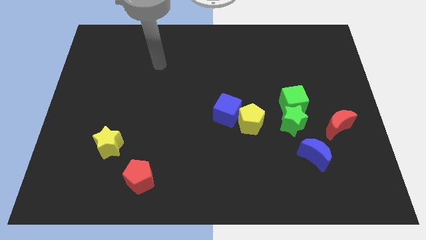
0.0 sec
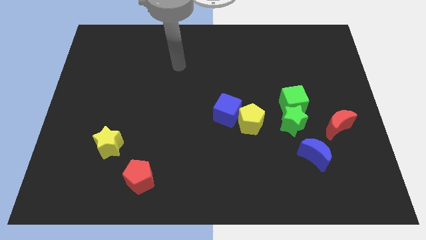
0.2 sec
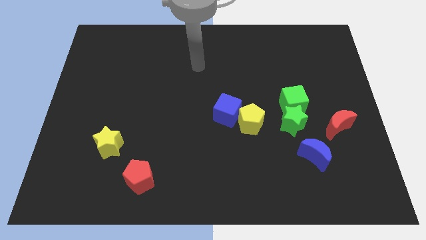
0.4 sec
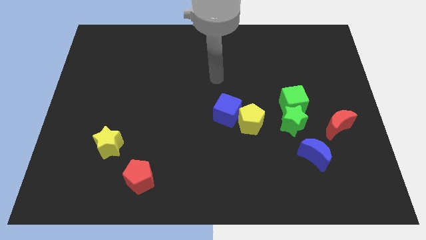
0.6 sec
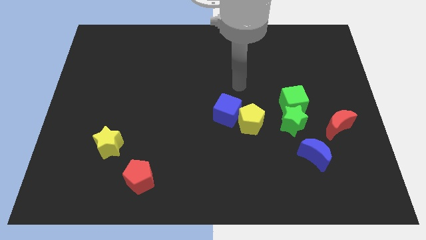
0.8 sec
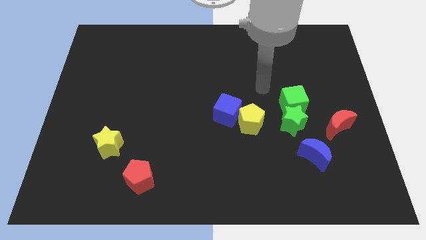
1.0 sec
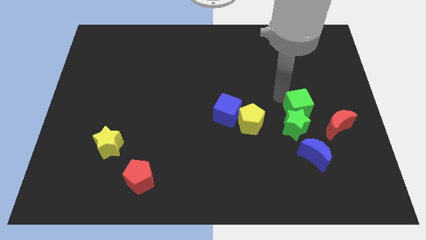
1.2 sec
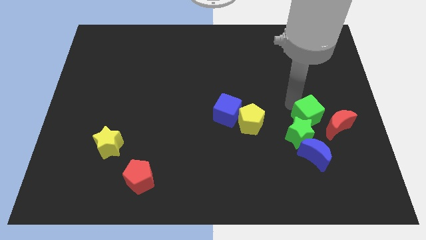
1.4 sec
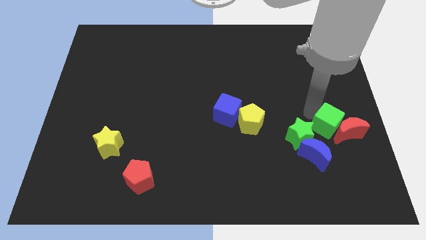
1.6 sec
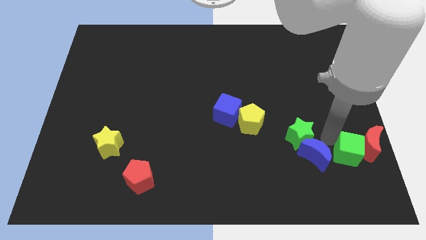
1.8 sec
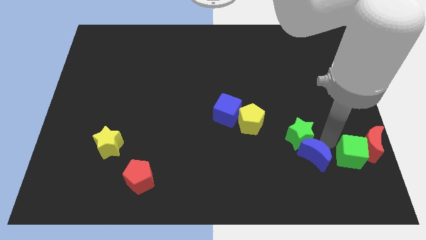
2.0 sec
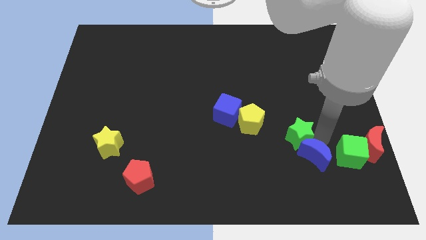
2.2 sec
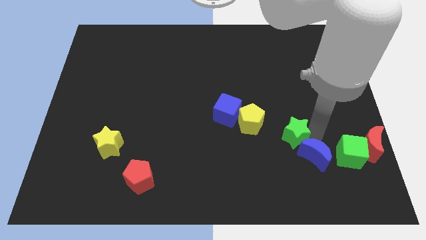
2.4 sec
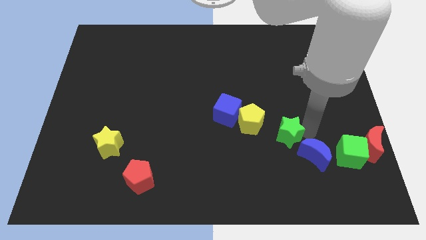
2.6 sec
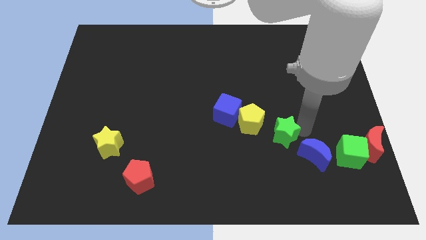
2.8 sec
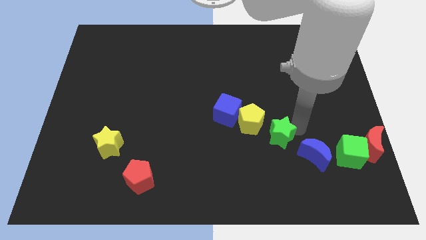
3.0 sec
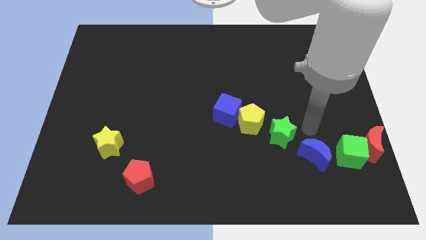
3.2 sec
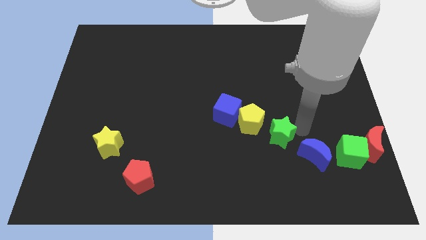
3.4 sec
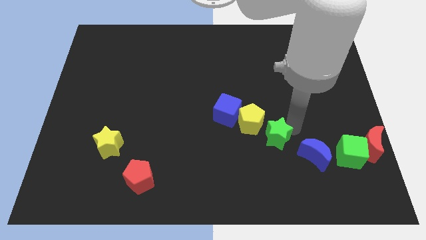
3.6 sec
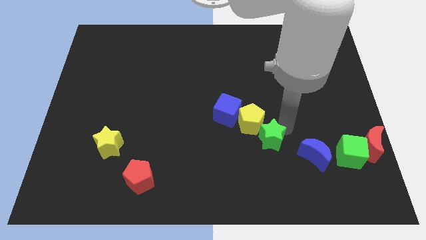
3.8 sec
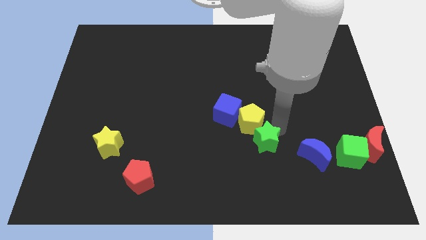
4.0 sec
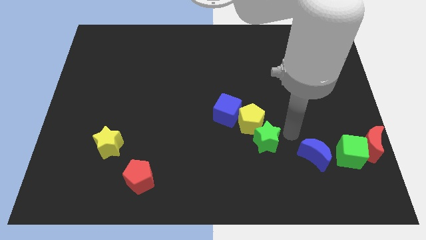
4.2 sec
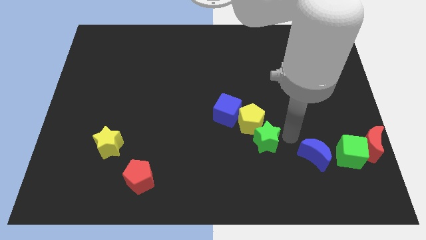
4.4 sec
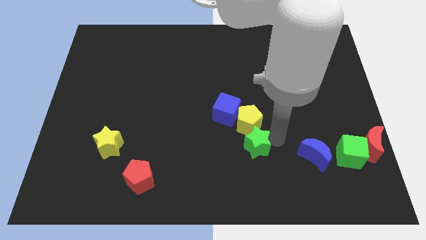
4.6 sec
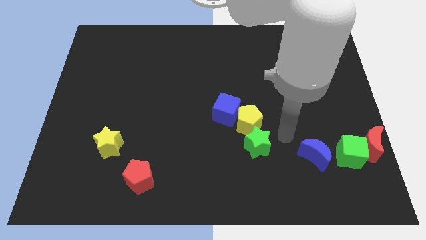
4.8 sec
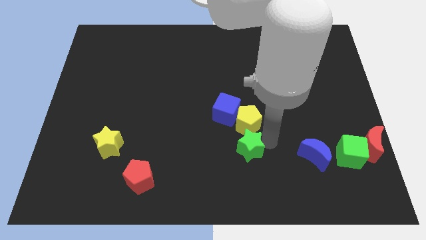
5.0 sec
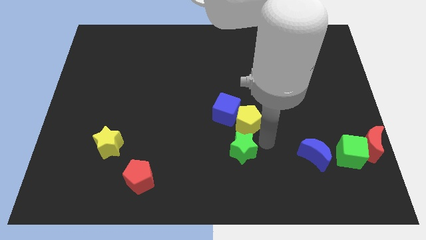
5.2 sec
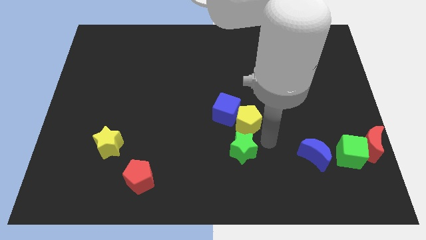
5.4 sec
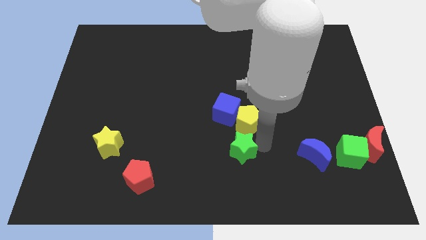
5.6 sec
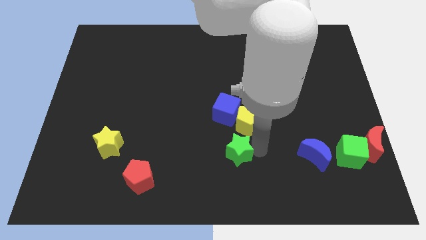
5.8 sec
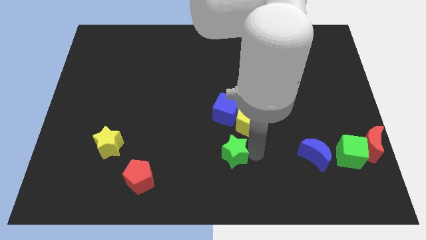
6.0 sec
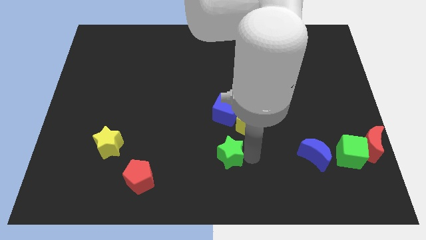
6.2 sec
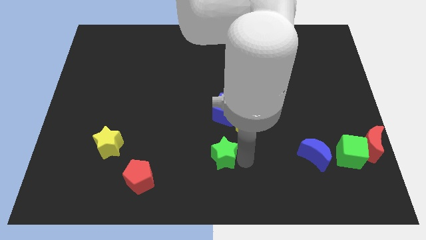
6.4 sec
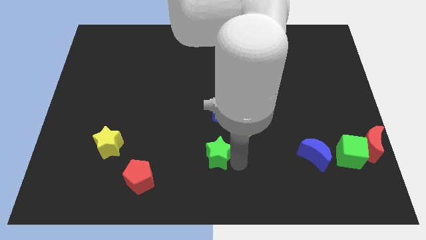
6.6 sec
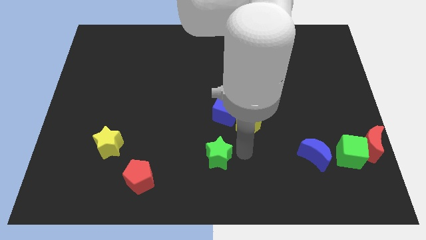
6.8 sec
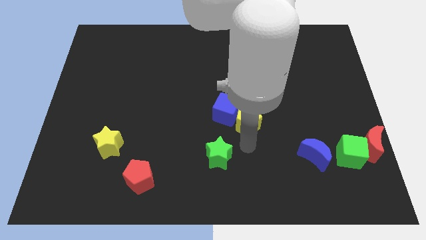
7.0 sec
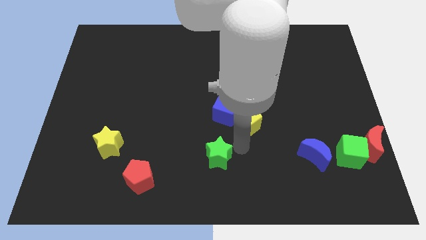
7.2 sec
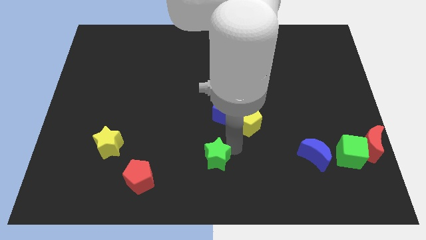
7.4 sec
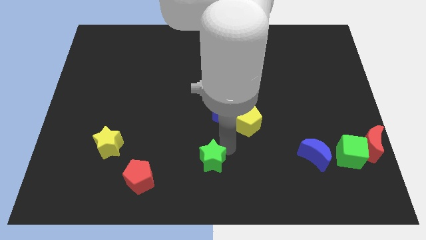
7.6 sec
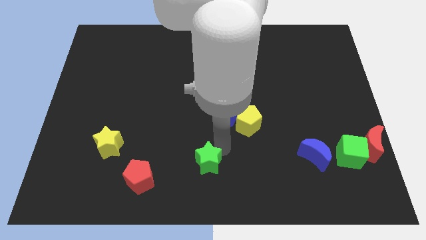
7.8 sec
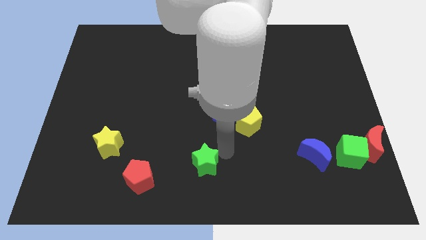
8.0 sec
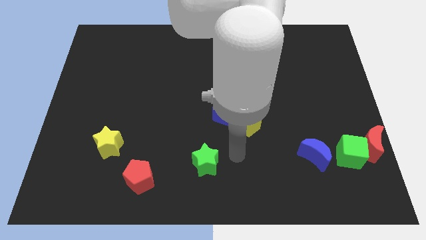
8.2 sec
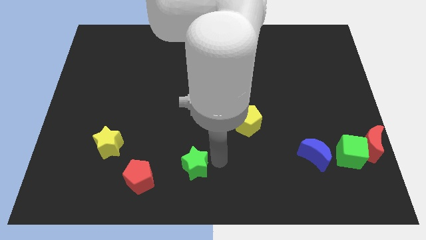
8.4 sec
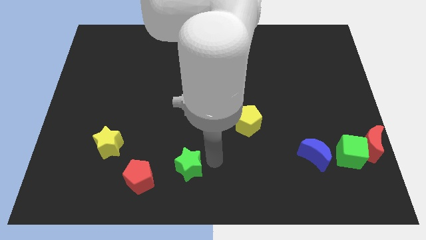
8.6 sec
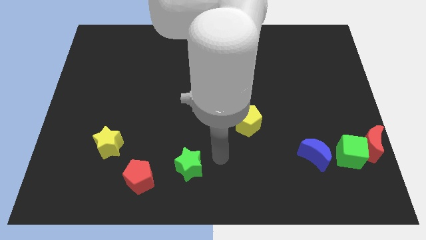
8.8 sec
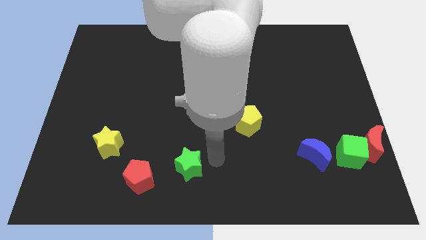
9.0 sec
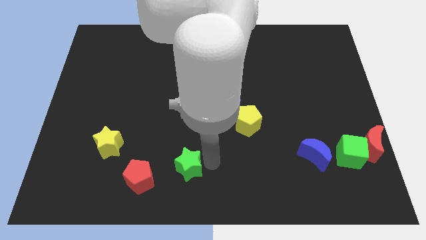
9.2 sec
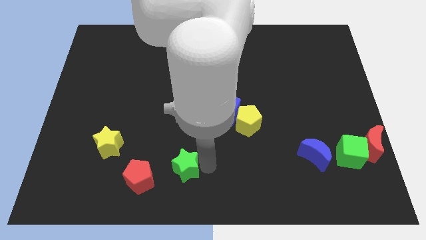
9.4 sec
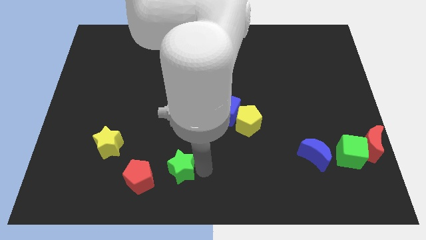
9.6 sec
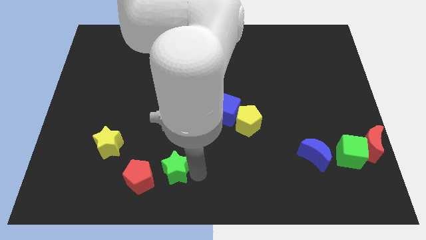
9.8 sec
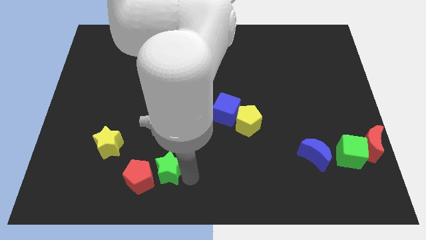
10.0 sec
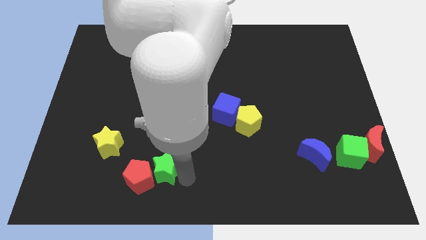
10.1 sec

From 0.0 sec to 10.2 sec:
slide the green star towards the red pentagon

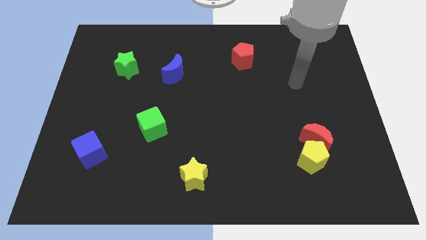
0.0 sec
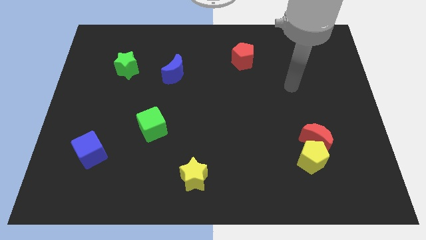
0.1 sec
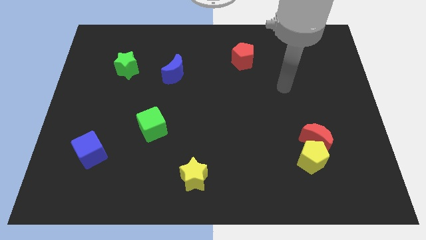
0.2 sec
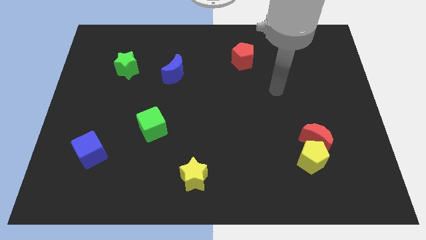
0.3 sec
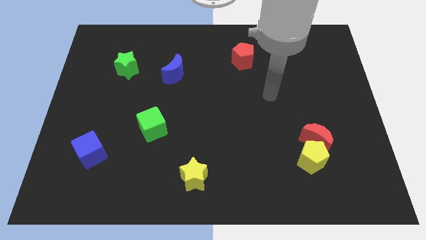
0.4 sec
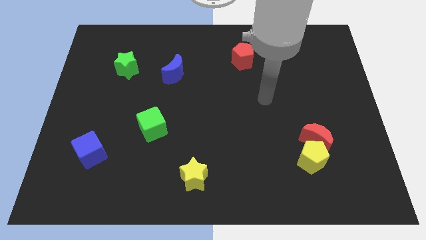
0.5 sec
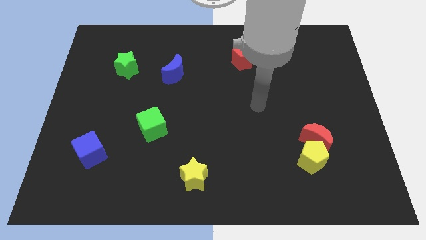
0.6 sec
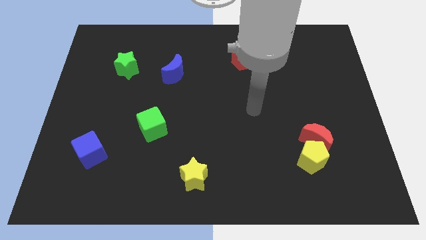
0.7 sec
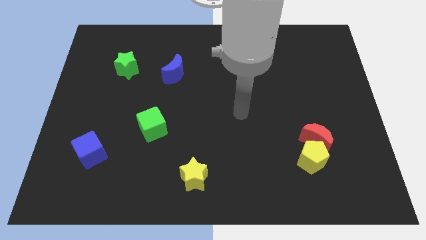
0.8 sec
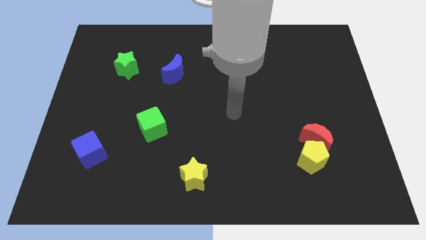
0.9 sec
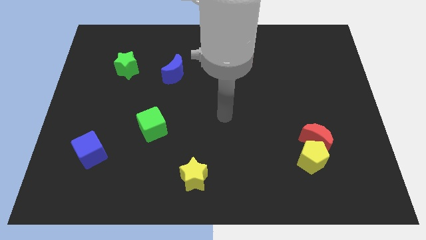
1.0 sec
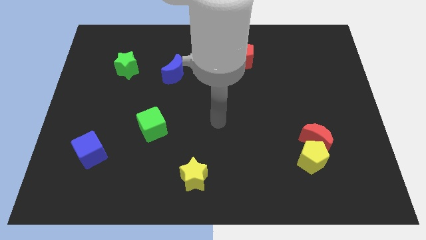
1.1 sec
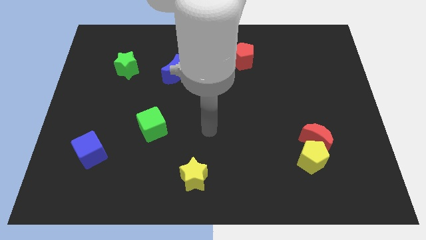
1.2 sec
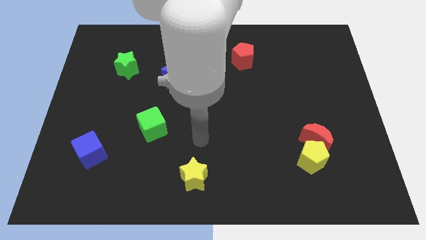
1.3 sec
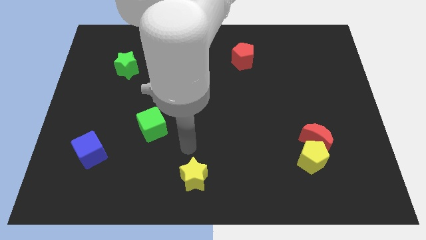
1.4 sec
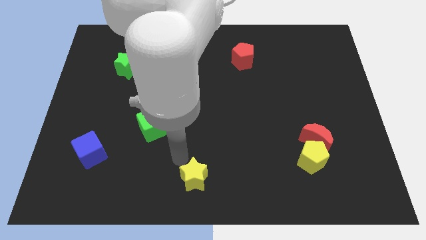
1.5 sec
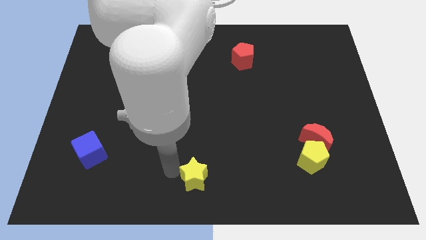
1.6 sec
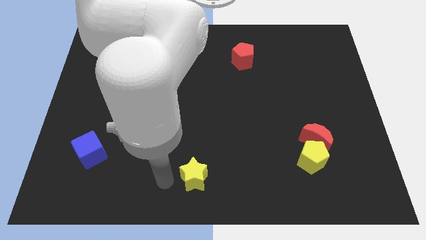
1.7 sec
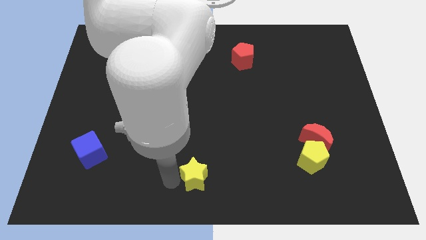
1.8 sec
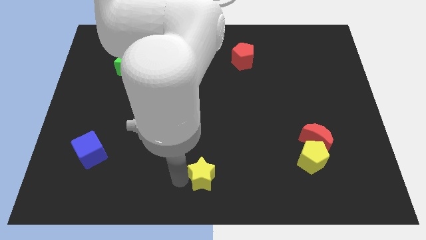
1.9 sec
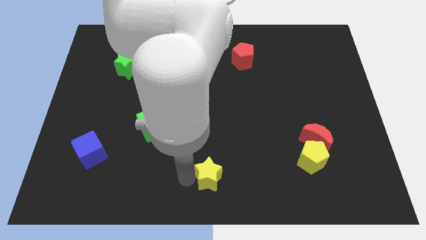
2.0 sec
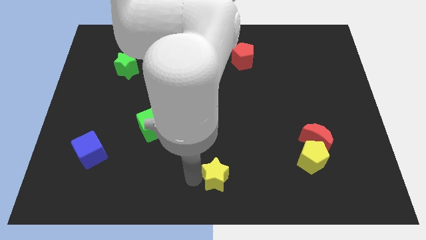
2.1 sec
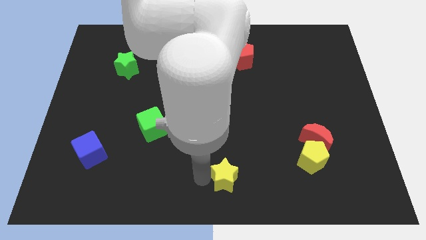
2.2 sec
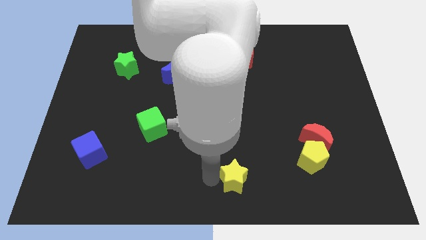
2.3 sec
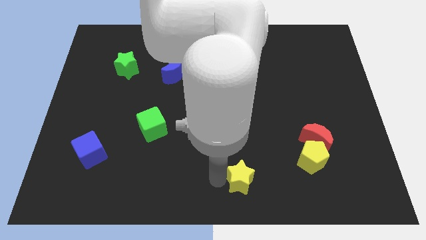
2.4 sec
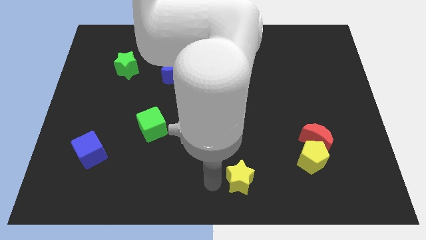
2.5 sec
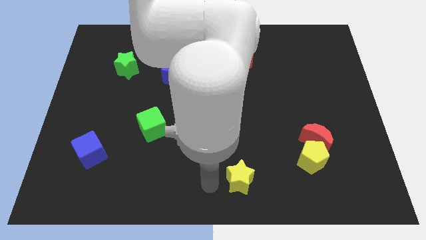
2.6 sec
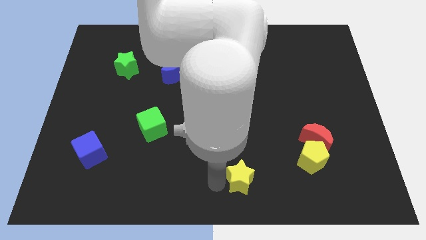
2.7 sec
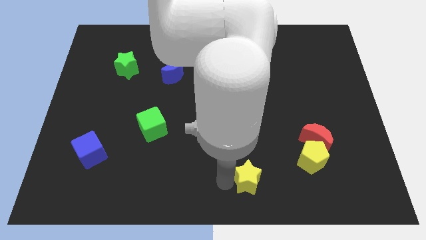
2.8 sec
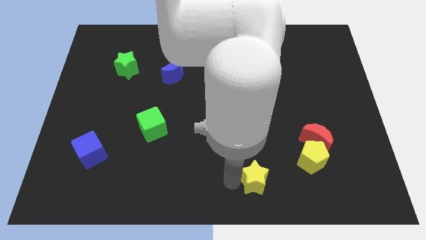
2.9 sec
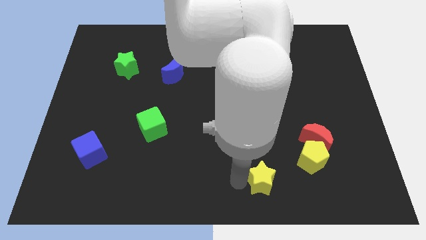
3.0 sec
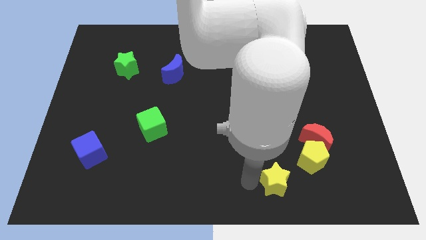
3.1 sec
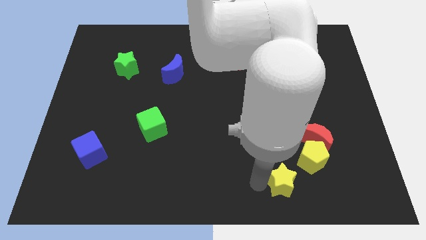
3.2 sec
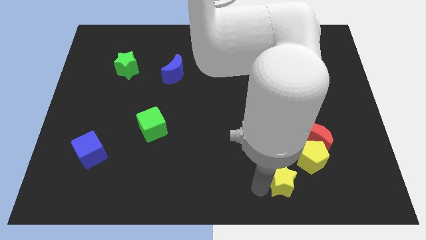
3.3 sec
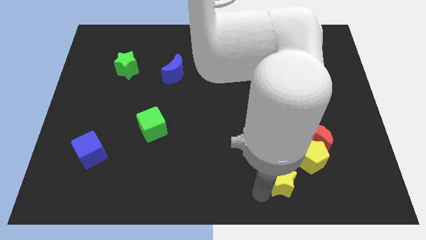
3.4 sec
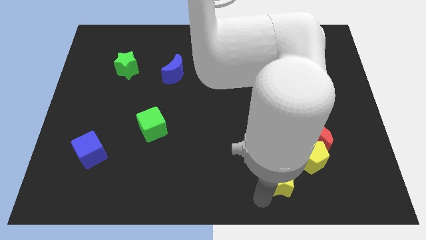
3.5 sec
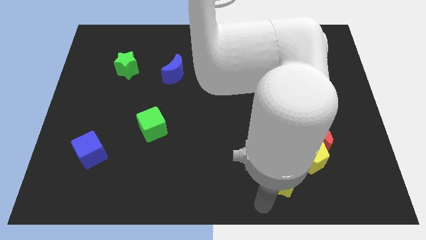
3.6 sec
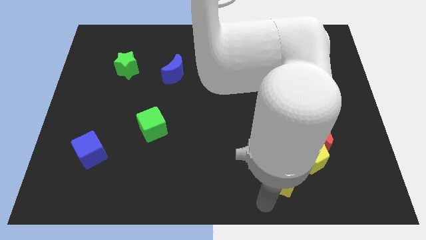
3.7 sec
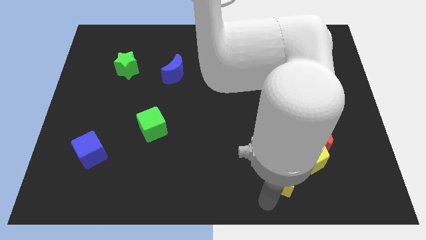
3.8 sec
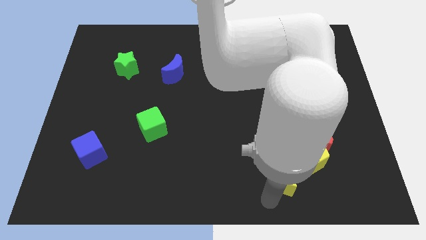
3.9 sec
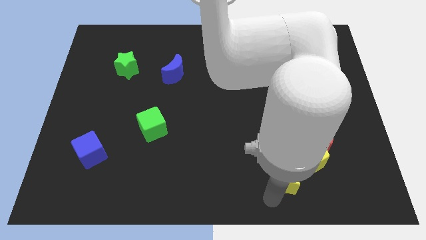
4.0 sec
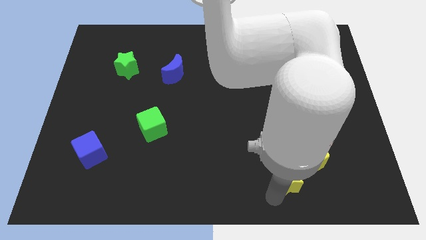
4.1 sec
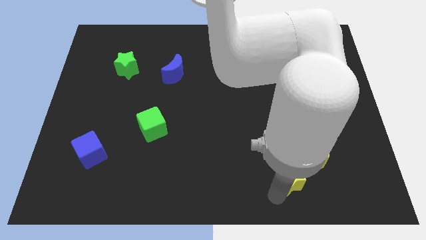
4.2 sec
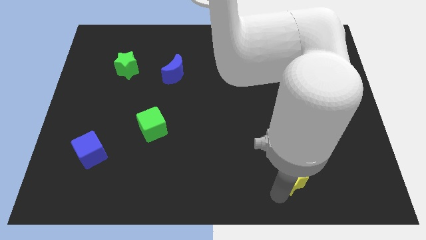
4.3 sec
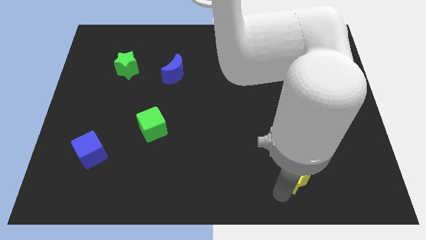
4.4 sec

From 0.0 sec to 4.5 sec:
slide the yellow star towards the yellow pentagon
